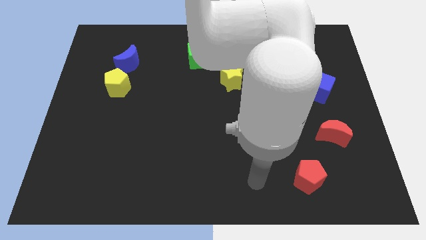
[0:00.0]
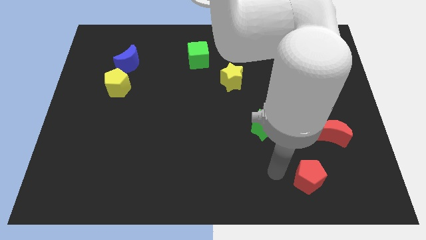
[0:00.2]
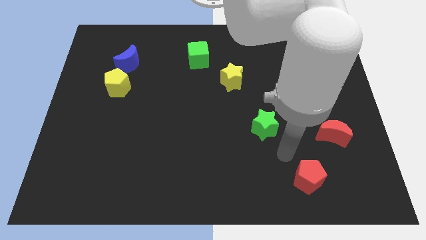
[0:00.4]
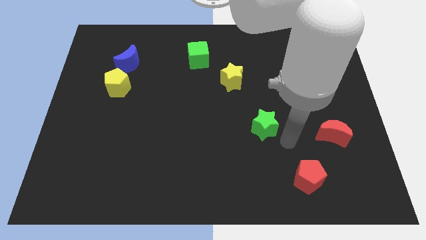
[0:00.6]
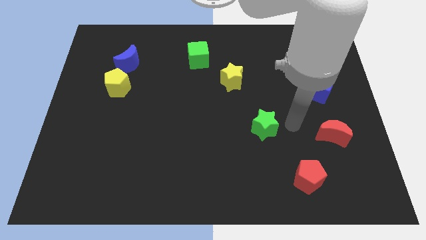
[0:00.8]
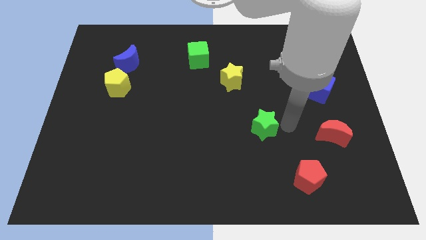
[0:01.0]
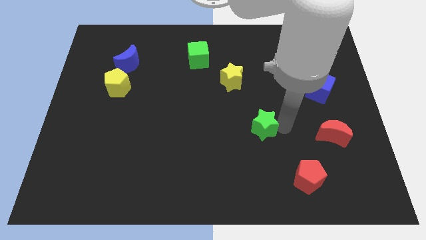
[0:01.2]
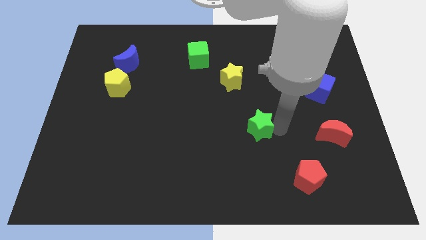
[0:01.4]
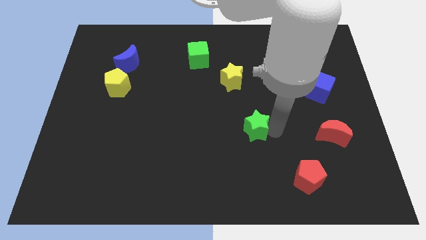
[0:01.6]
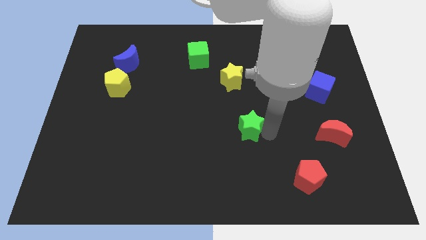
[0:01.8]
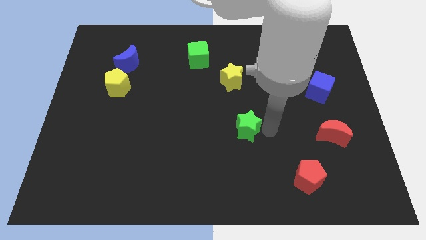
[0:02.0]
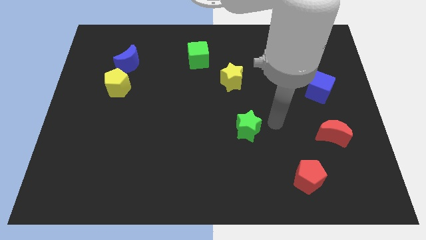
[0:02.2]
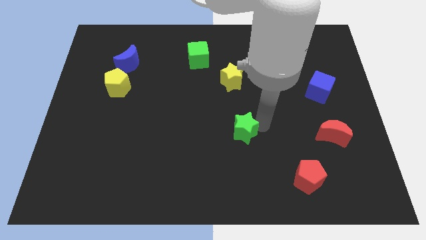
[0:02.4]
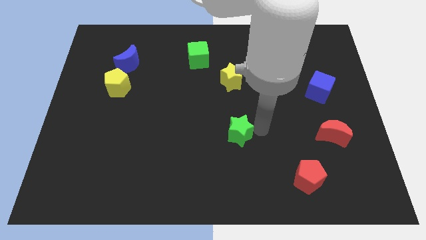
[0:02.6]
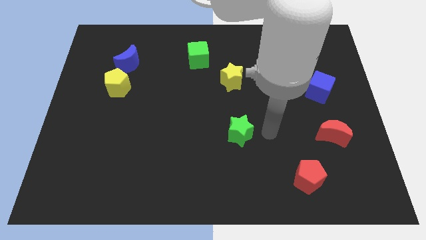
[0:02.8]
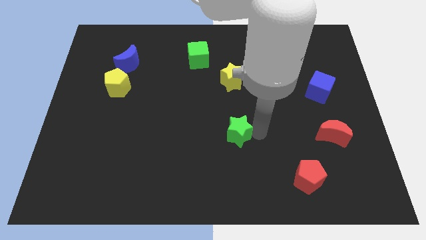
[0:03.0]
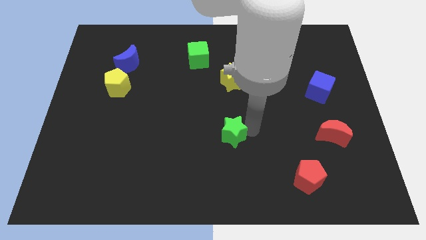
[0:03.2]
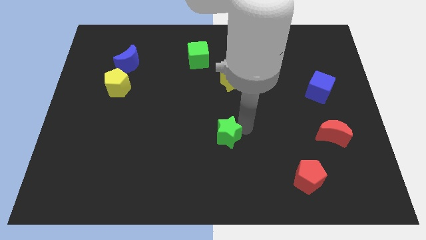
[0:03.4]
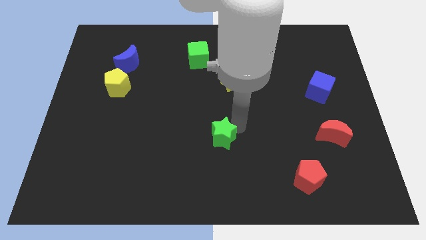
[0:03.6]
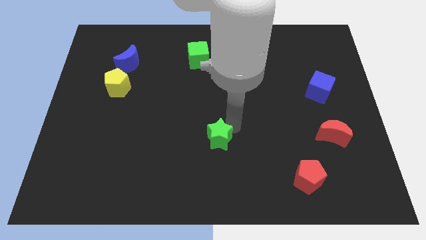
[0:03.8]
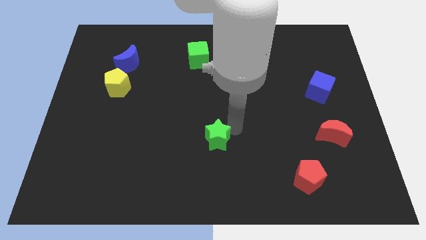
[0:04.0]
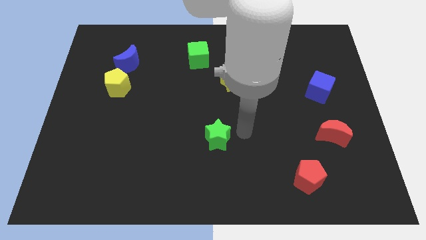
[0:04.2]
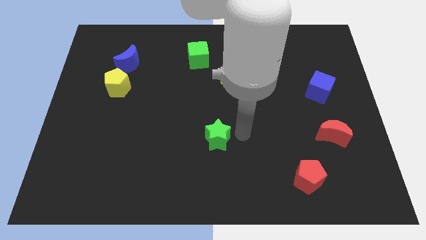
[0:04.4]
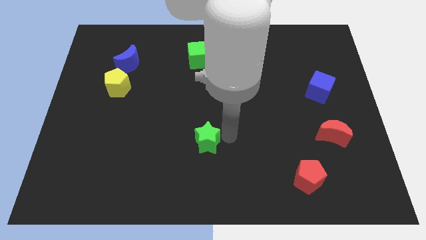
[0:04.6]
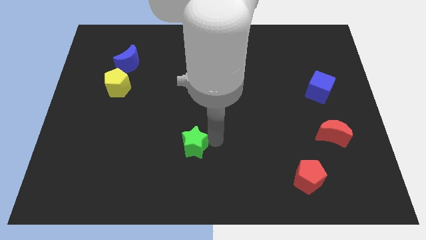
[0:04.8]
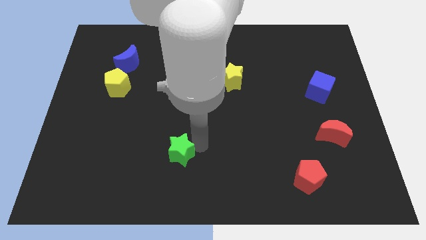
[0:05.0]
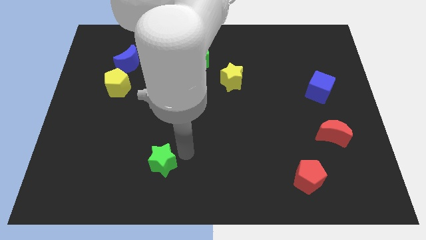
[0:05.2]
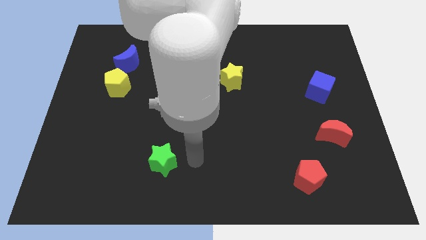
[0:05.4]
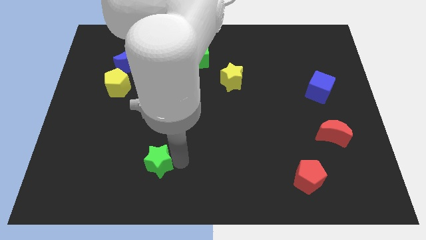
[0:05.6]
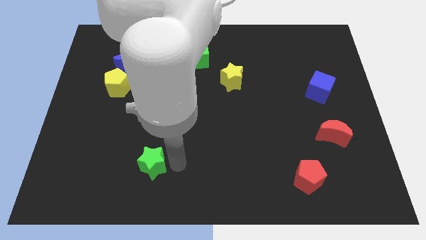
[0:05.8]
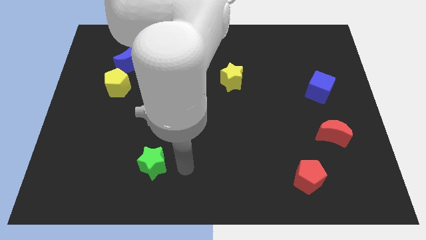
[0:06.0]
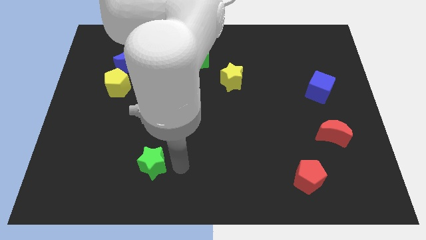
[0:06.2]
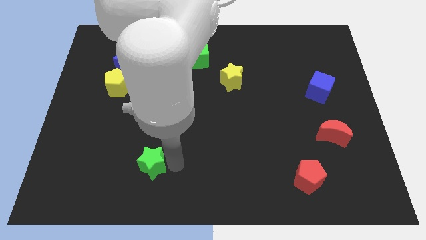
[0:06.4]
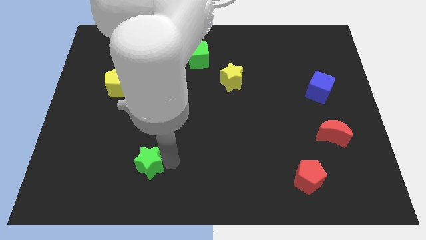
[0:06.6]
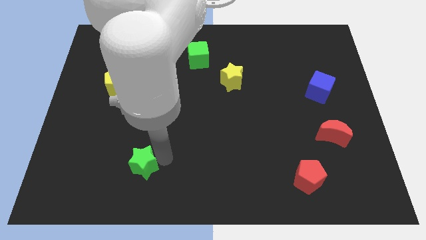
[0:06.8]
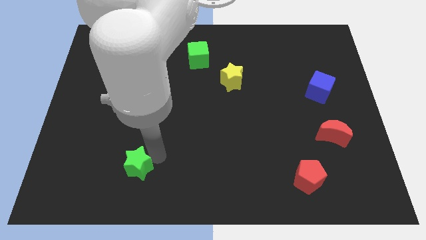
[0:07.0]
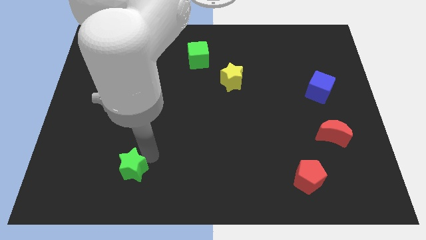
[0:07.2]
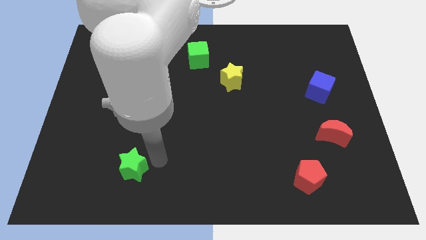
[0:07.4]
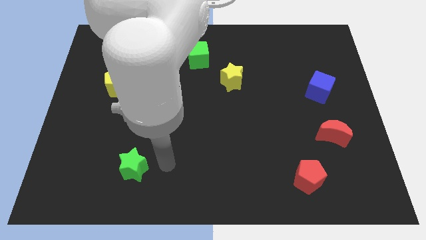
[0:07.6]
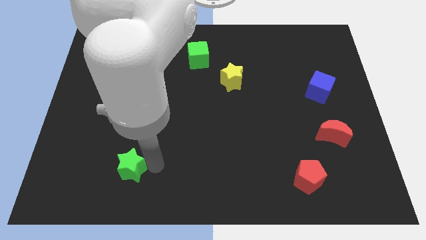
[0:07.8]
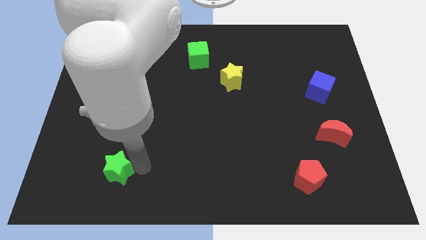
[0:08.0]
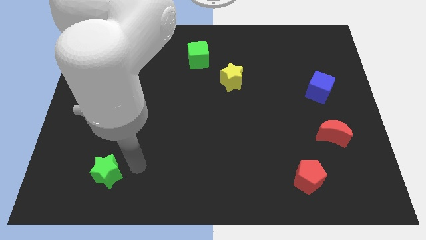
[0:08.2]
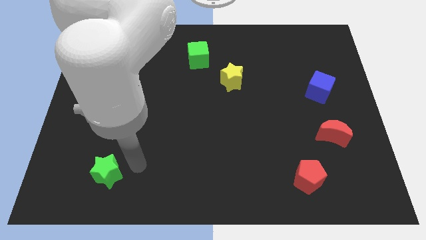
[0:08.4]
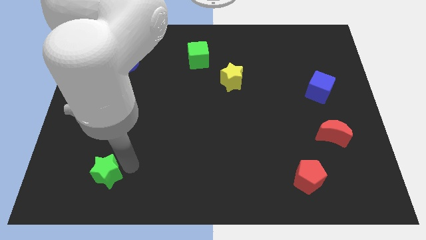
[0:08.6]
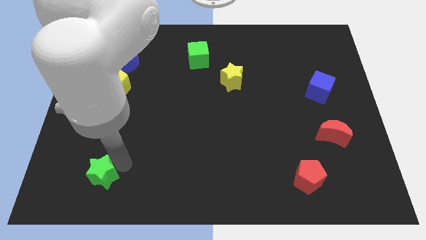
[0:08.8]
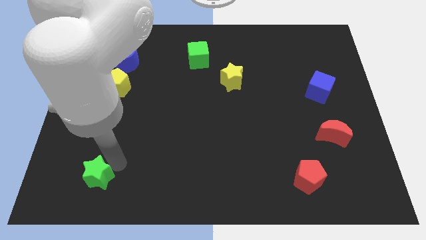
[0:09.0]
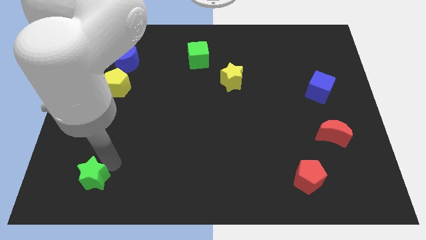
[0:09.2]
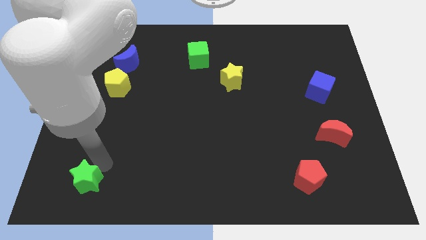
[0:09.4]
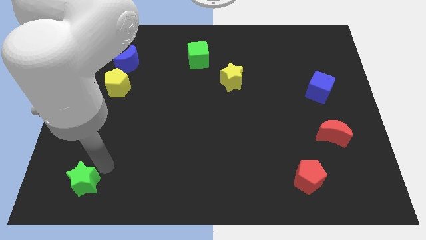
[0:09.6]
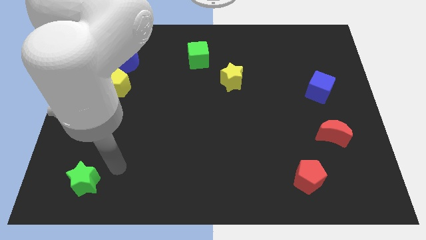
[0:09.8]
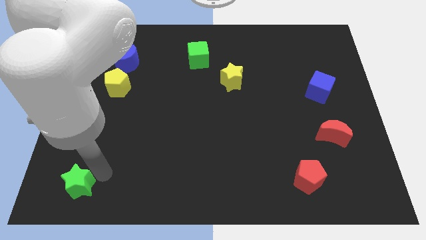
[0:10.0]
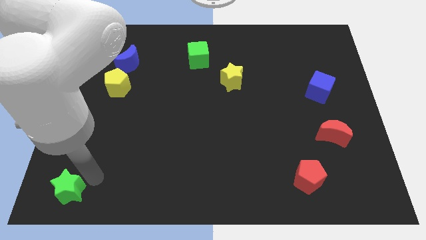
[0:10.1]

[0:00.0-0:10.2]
push the green star to the bottom left corner

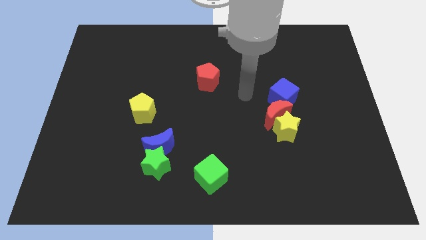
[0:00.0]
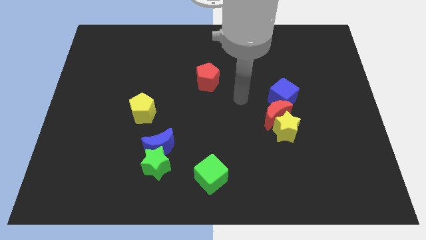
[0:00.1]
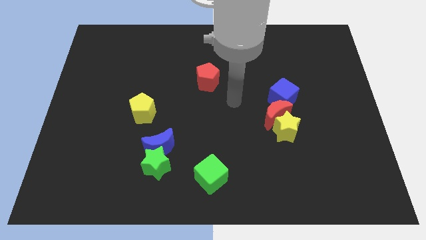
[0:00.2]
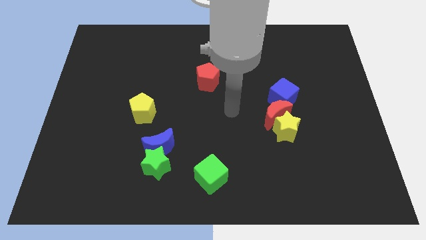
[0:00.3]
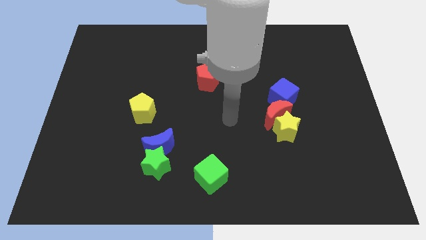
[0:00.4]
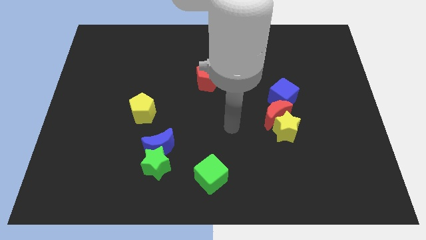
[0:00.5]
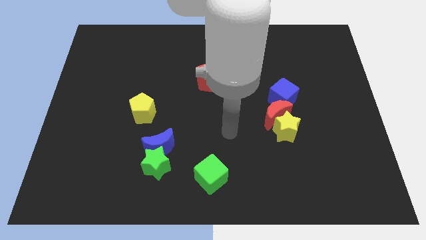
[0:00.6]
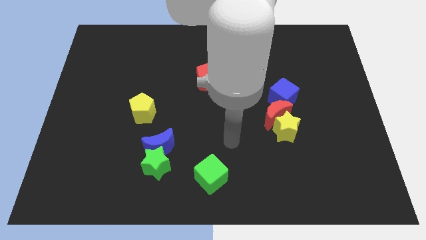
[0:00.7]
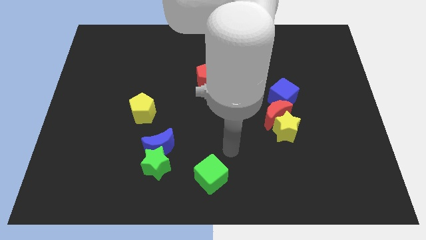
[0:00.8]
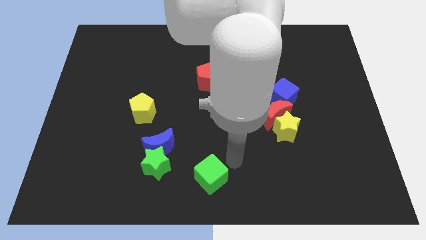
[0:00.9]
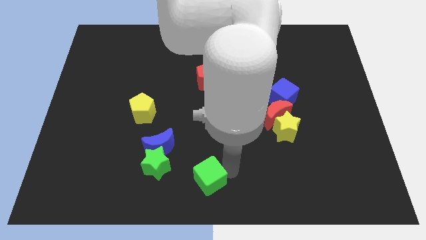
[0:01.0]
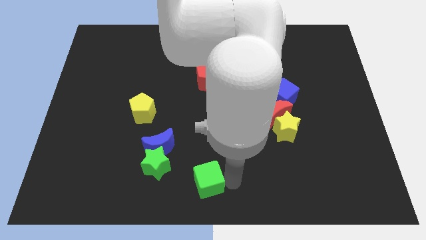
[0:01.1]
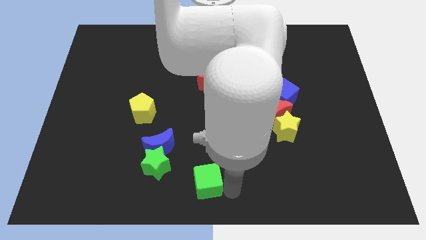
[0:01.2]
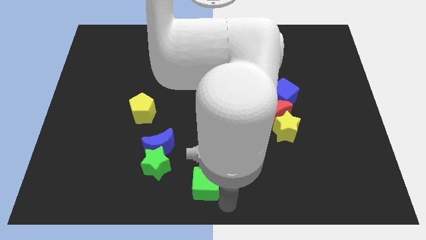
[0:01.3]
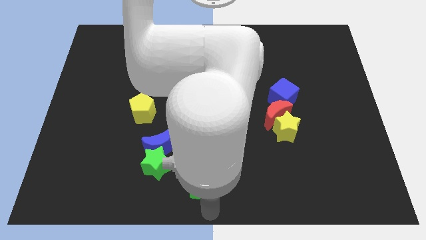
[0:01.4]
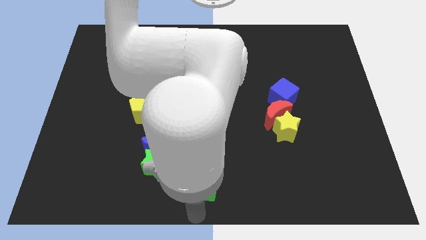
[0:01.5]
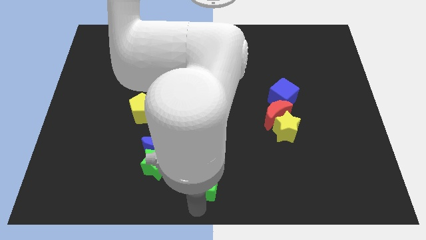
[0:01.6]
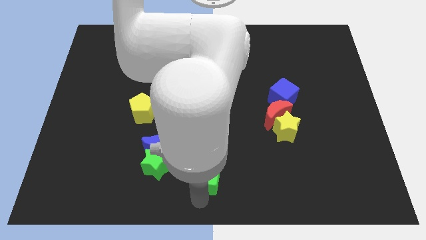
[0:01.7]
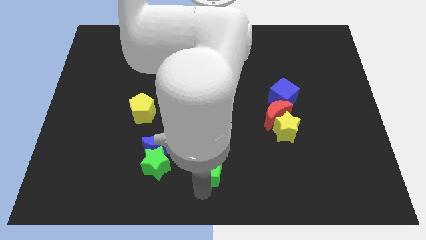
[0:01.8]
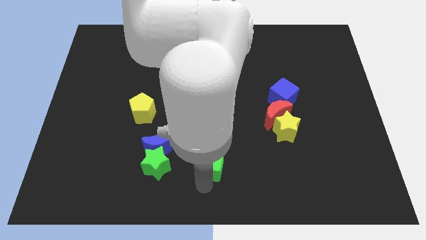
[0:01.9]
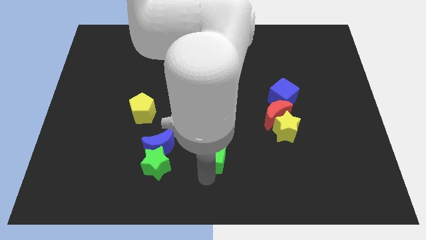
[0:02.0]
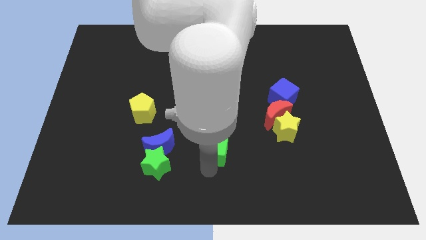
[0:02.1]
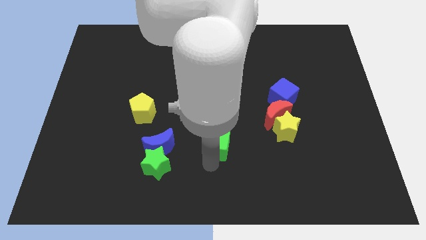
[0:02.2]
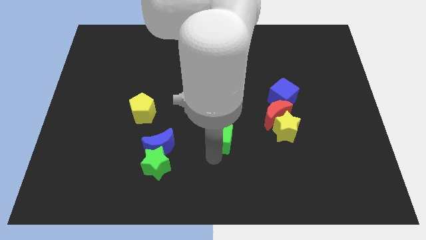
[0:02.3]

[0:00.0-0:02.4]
put the green cube to the center of the board
